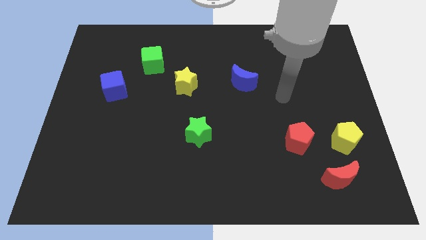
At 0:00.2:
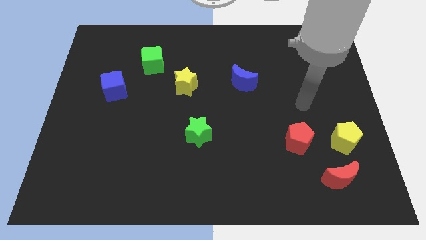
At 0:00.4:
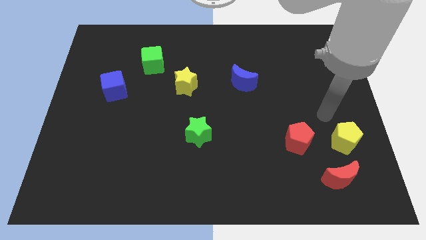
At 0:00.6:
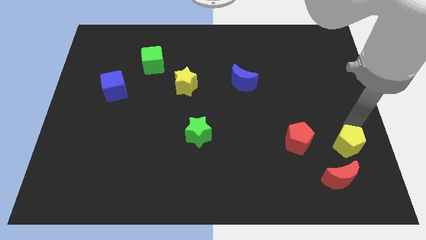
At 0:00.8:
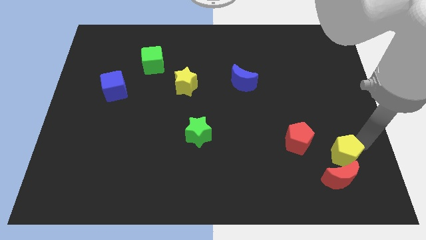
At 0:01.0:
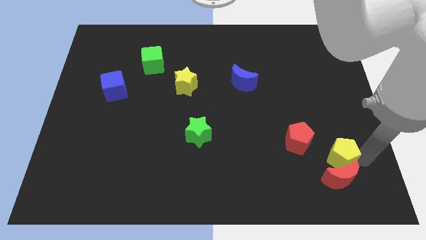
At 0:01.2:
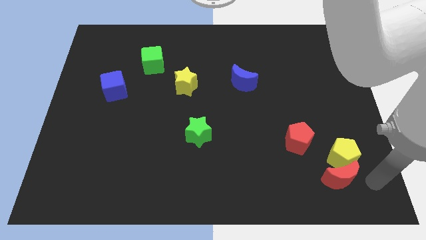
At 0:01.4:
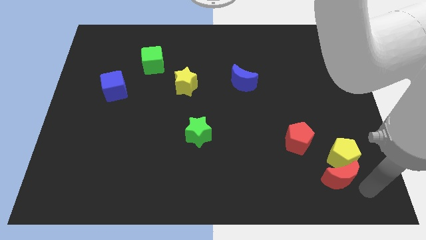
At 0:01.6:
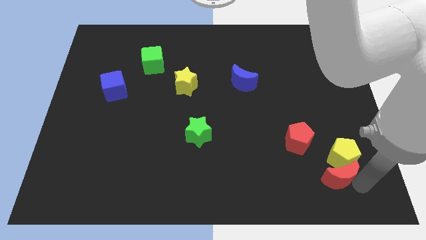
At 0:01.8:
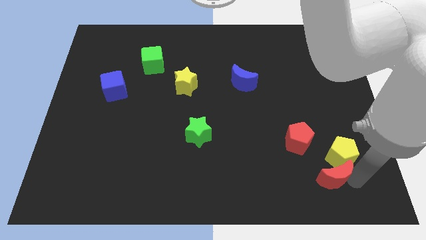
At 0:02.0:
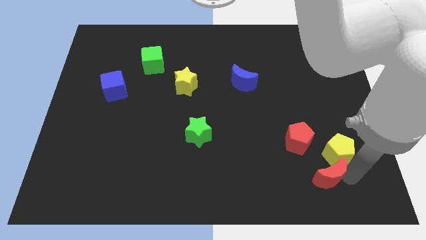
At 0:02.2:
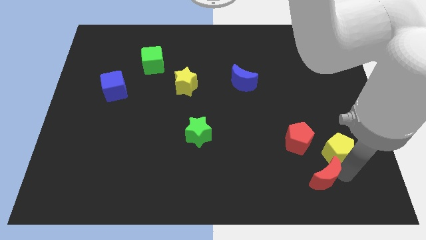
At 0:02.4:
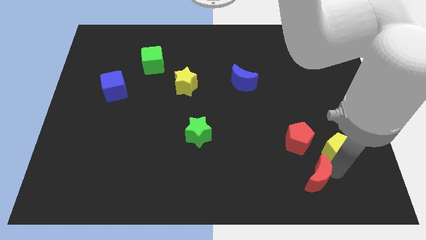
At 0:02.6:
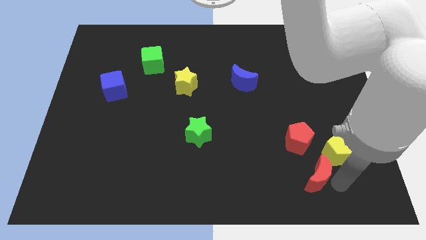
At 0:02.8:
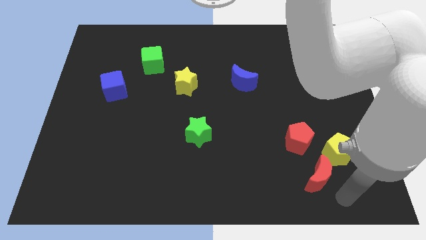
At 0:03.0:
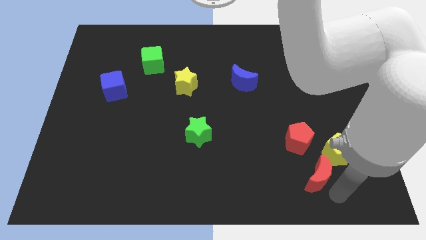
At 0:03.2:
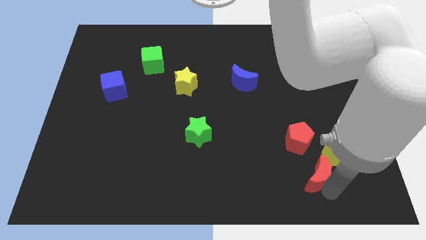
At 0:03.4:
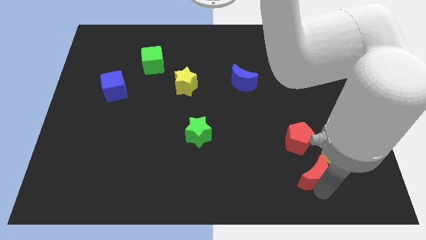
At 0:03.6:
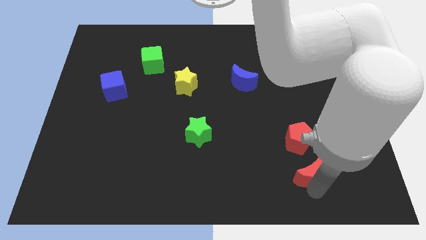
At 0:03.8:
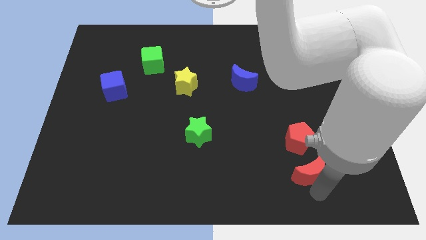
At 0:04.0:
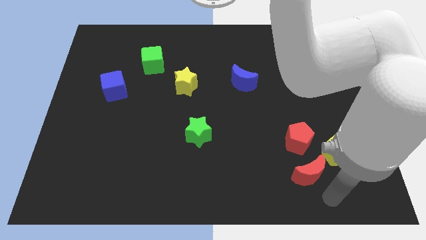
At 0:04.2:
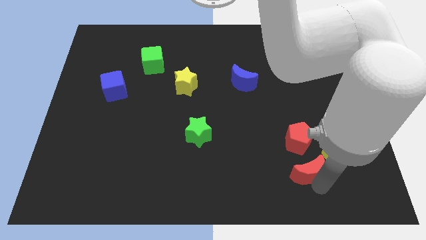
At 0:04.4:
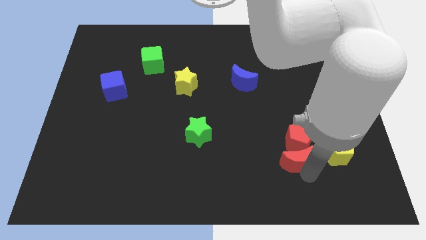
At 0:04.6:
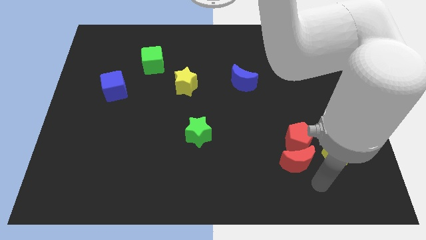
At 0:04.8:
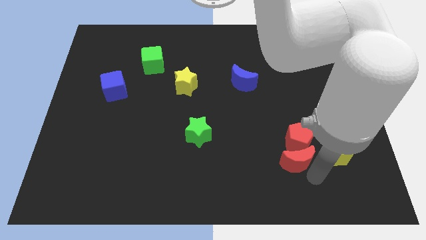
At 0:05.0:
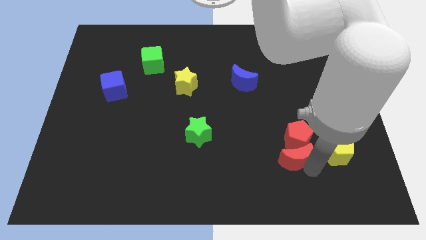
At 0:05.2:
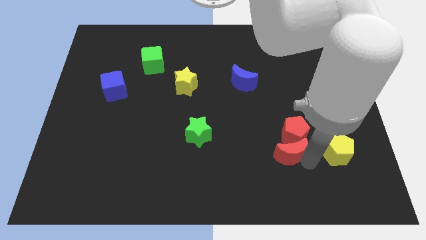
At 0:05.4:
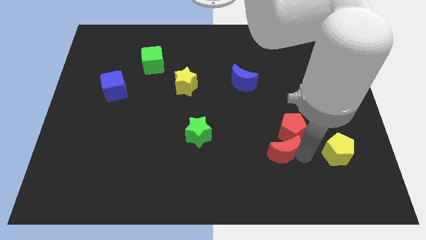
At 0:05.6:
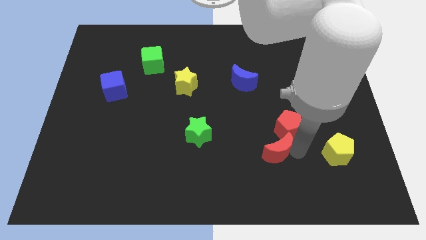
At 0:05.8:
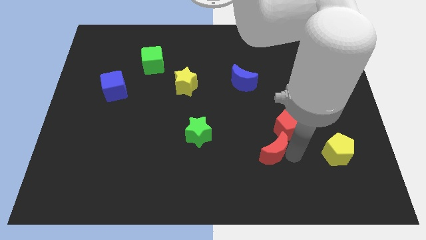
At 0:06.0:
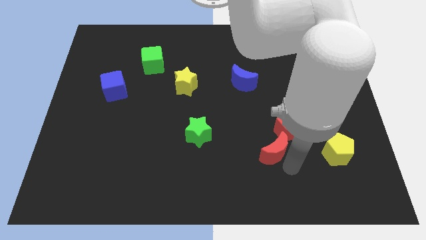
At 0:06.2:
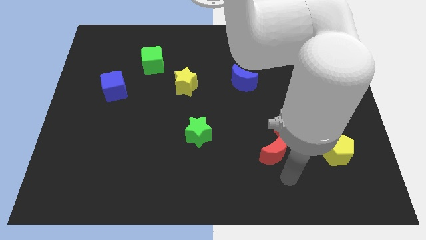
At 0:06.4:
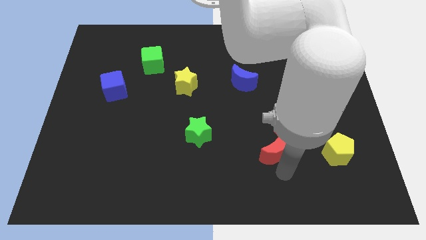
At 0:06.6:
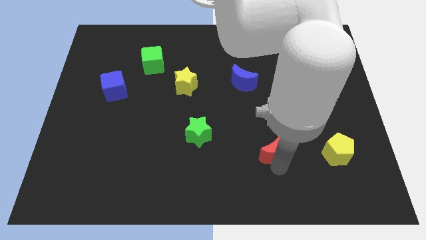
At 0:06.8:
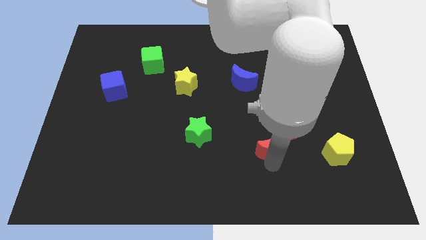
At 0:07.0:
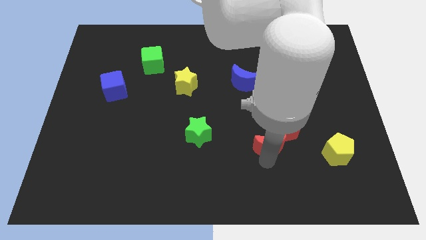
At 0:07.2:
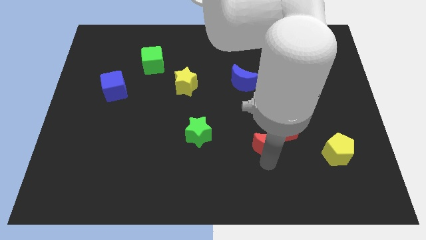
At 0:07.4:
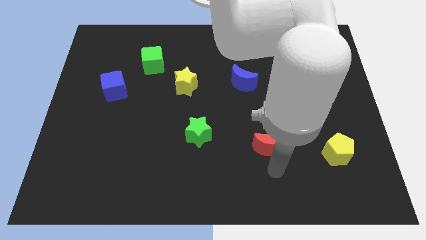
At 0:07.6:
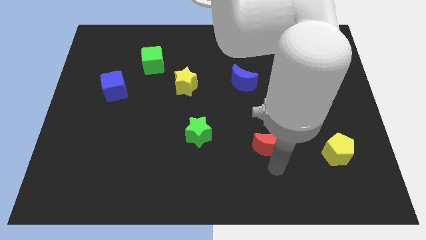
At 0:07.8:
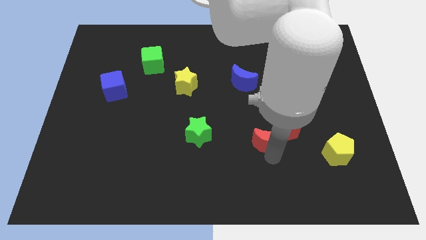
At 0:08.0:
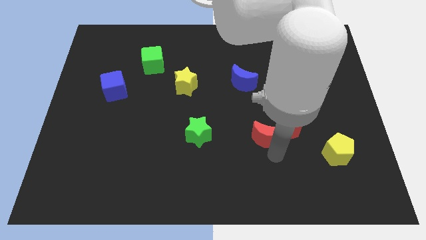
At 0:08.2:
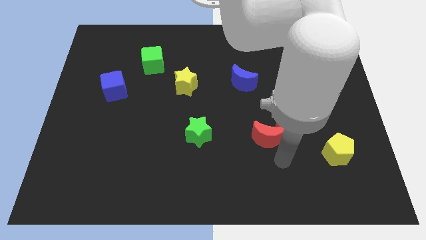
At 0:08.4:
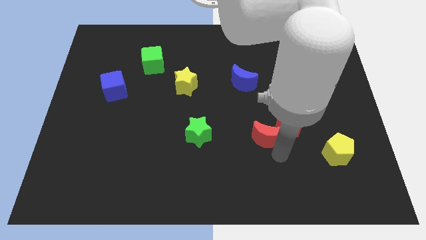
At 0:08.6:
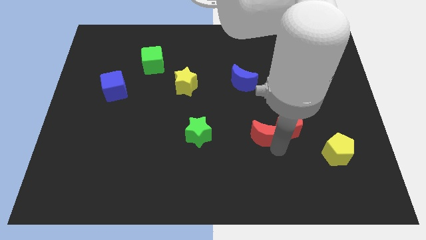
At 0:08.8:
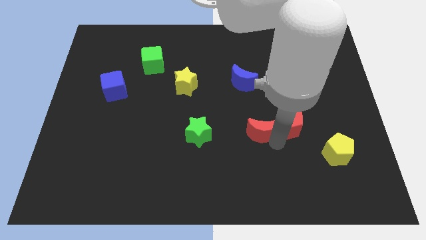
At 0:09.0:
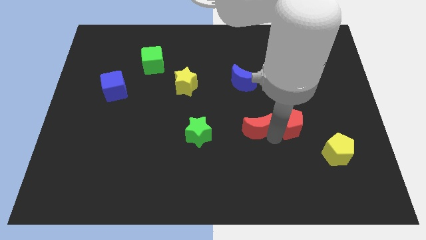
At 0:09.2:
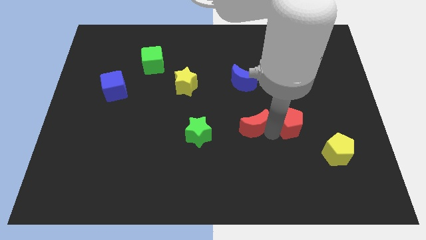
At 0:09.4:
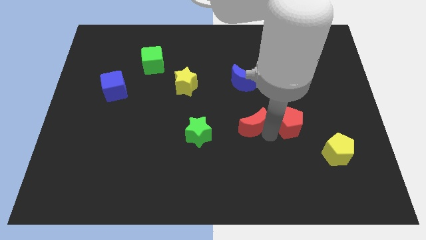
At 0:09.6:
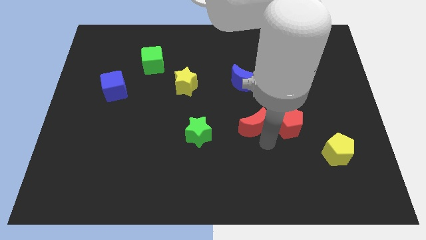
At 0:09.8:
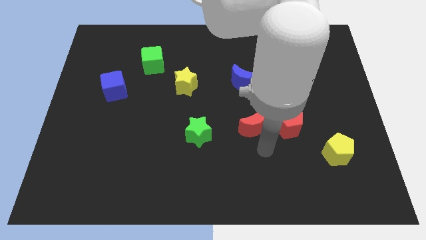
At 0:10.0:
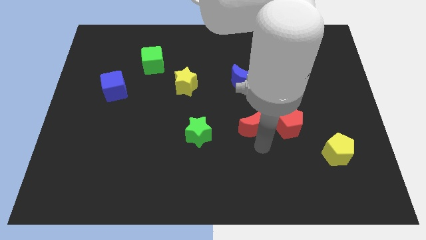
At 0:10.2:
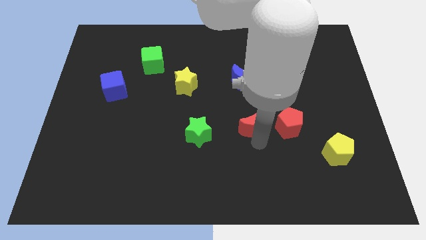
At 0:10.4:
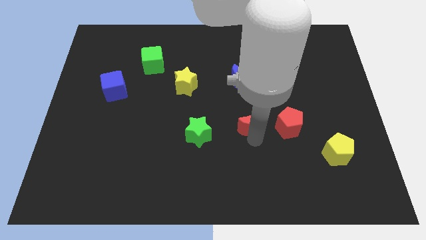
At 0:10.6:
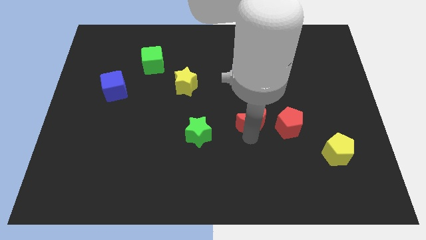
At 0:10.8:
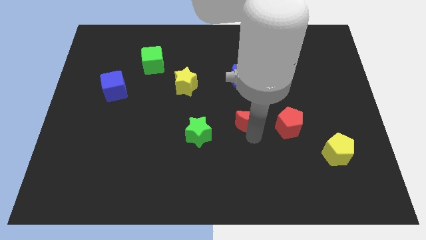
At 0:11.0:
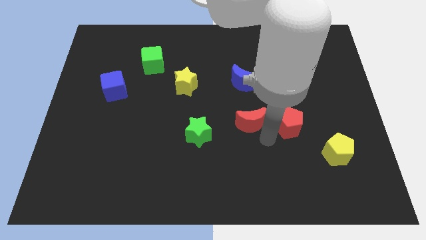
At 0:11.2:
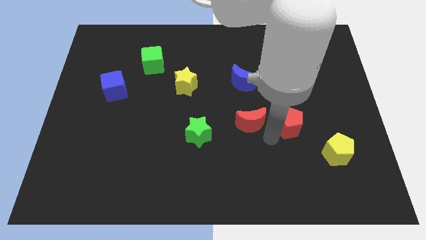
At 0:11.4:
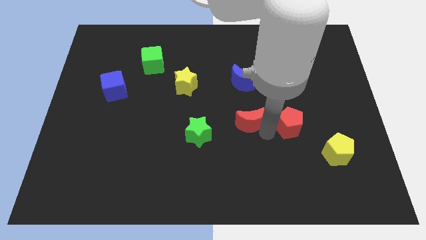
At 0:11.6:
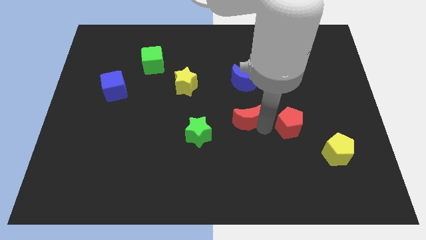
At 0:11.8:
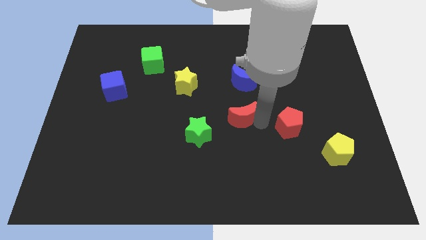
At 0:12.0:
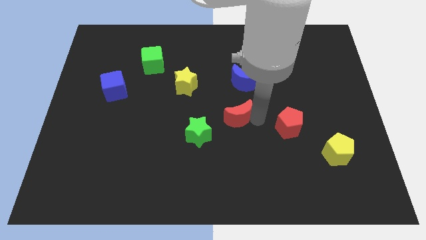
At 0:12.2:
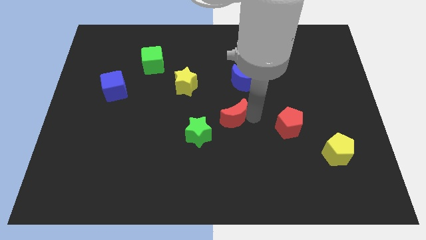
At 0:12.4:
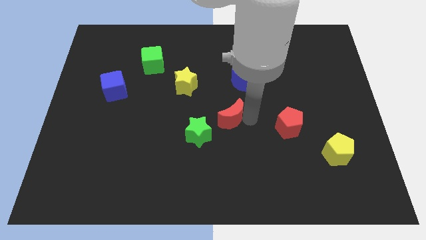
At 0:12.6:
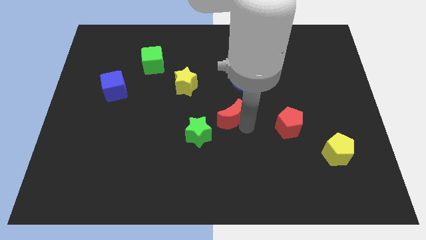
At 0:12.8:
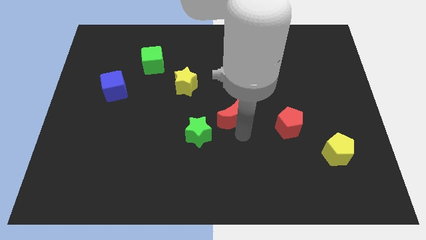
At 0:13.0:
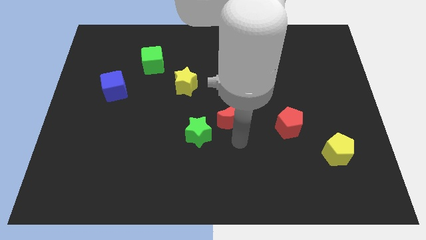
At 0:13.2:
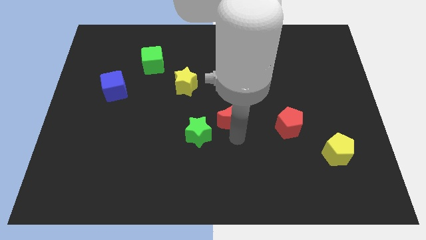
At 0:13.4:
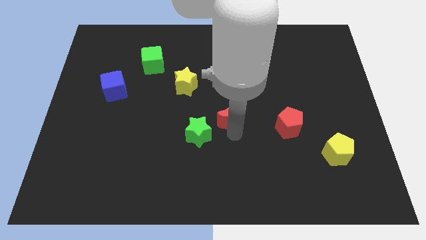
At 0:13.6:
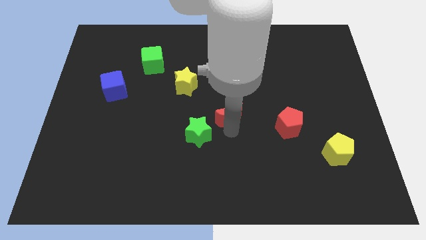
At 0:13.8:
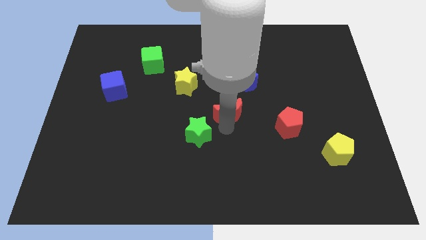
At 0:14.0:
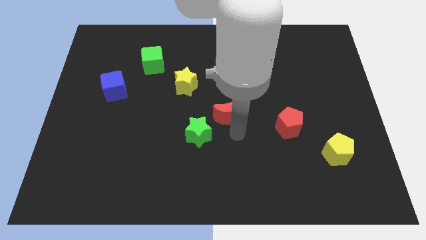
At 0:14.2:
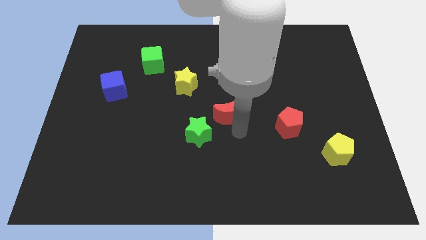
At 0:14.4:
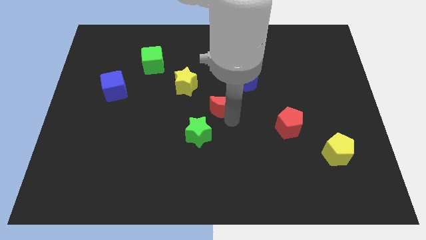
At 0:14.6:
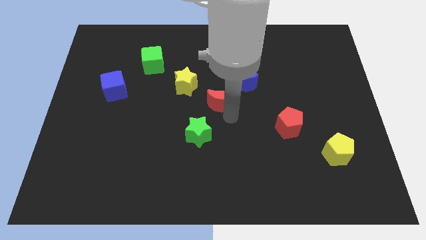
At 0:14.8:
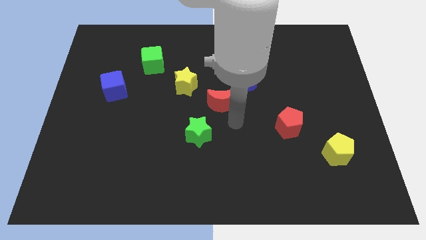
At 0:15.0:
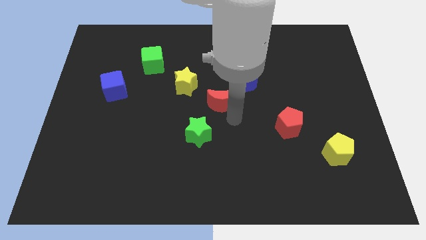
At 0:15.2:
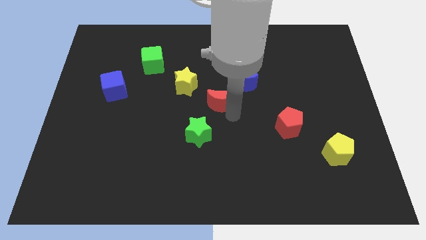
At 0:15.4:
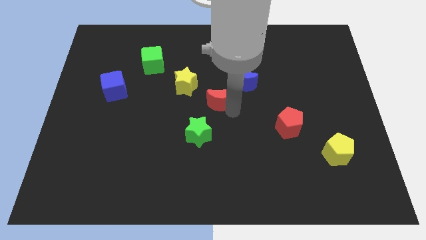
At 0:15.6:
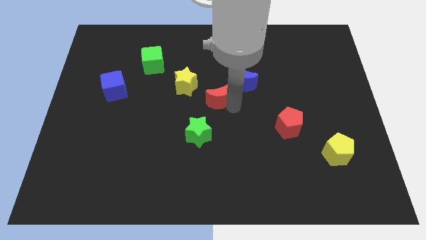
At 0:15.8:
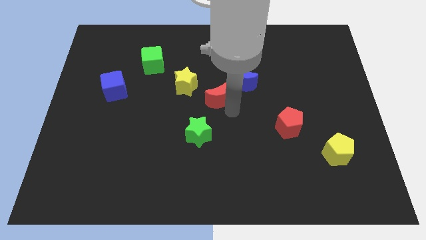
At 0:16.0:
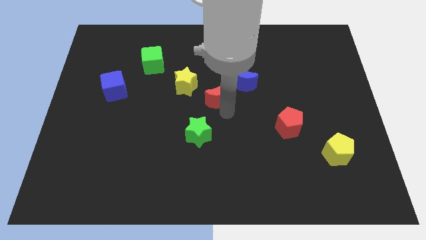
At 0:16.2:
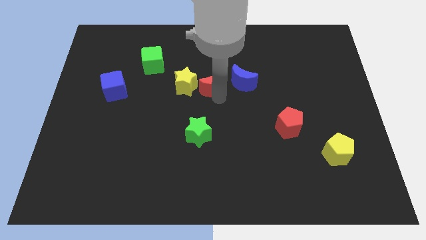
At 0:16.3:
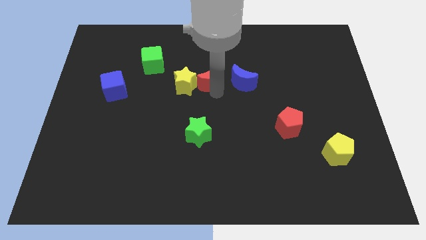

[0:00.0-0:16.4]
push the red moon to the top right of the yellow star
